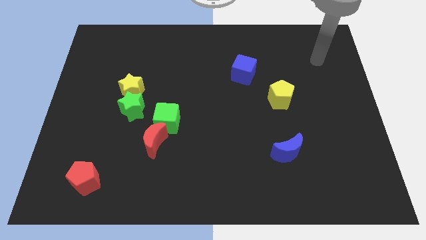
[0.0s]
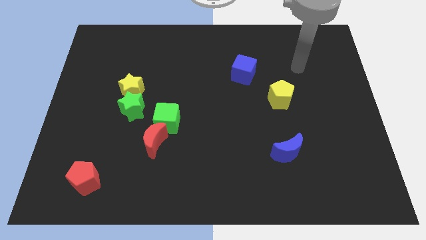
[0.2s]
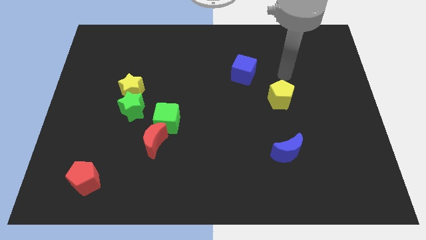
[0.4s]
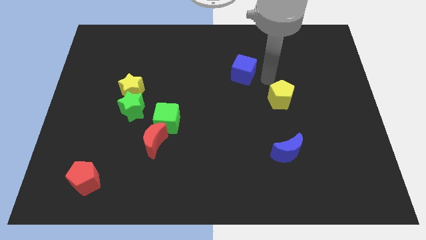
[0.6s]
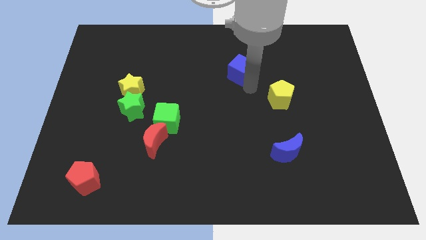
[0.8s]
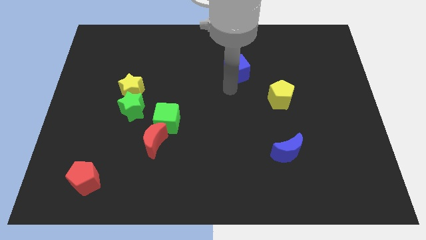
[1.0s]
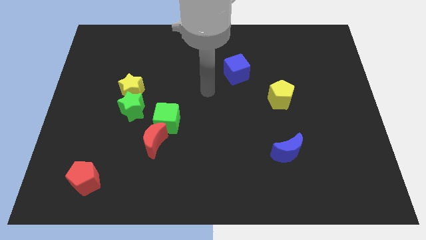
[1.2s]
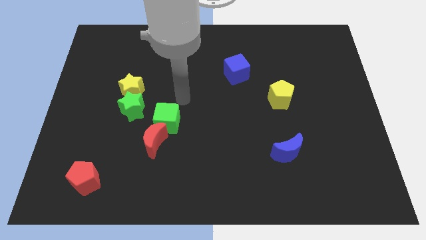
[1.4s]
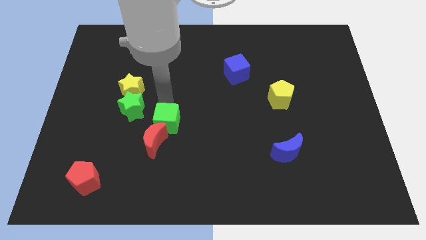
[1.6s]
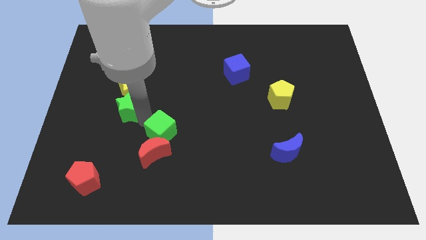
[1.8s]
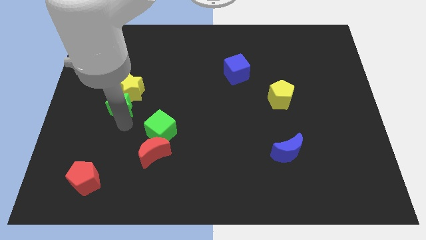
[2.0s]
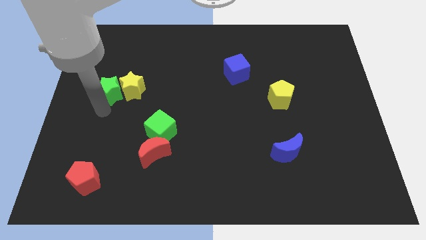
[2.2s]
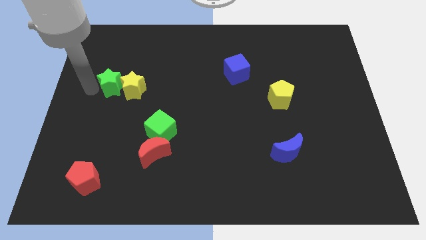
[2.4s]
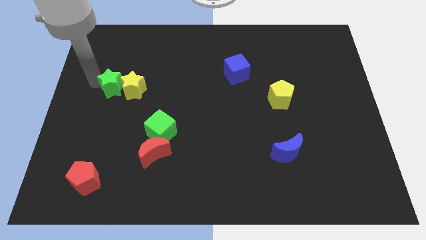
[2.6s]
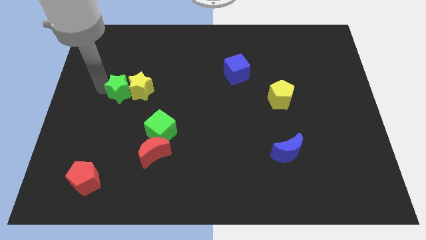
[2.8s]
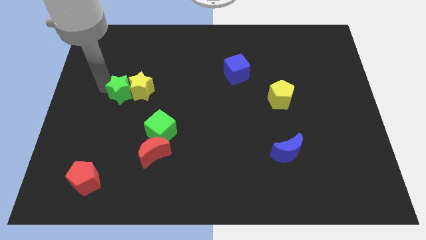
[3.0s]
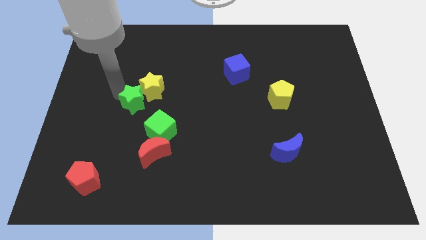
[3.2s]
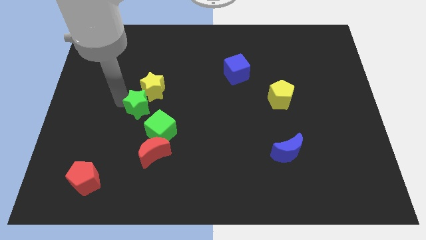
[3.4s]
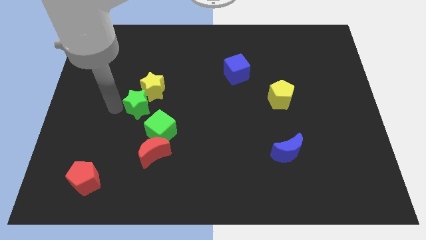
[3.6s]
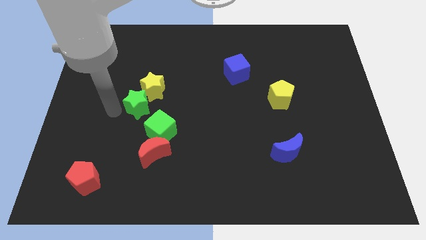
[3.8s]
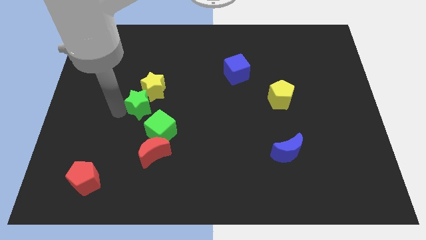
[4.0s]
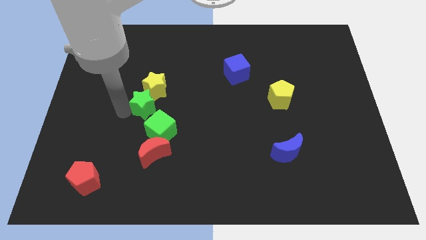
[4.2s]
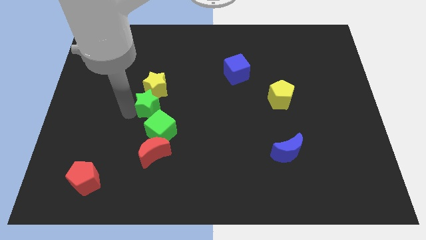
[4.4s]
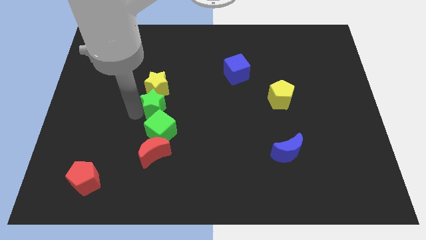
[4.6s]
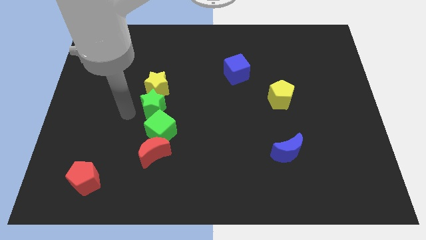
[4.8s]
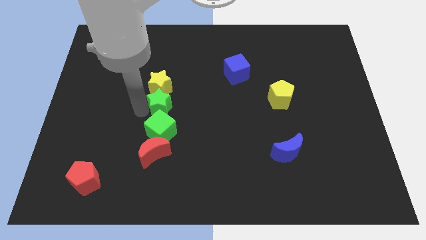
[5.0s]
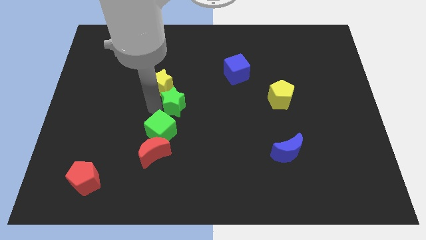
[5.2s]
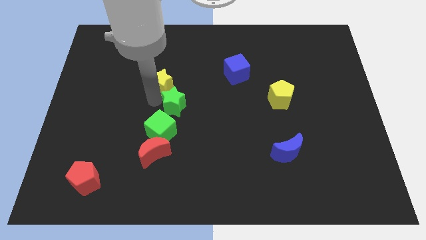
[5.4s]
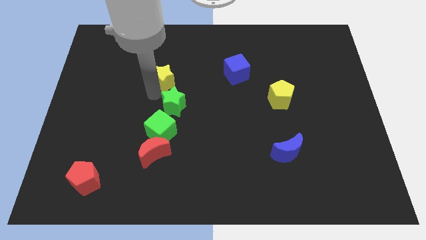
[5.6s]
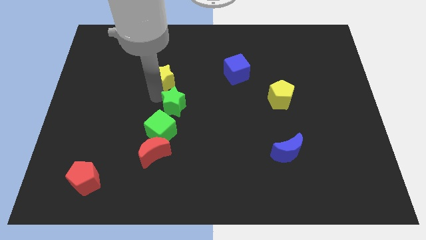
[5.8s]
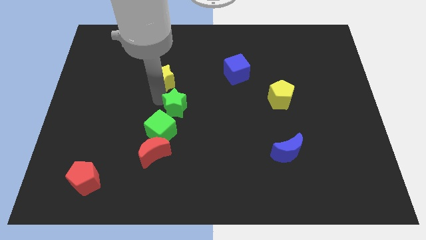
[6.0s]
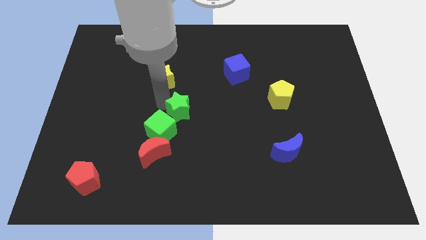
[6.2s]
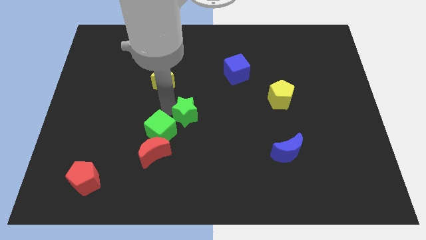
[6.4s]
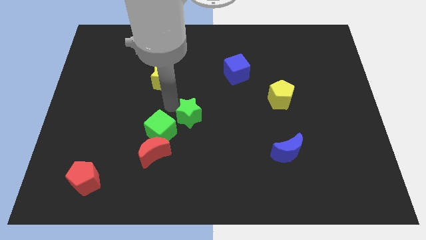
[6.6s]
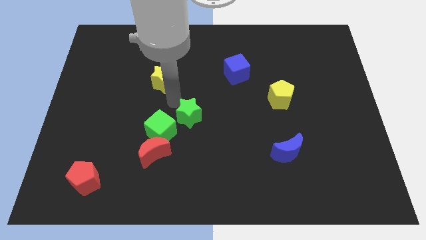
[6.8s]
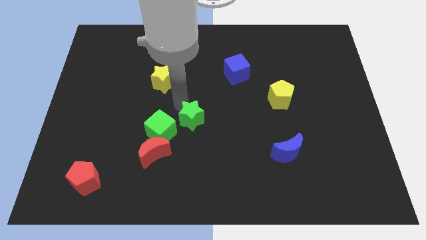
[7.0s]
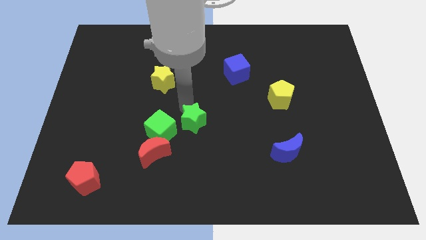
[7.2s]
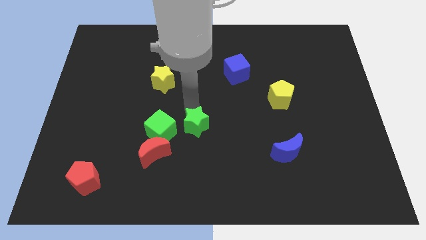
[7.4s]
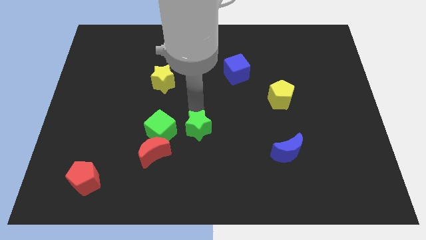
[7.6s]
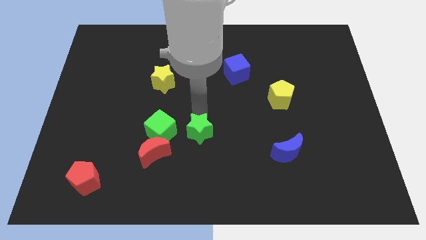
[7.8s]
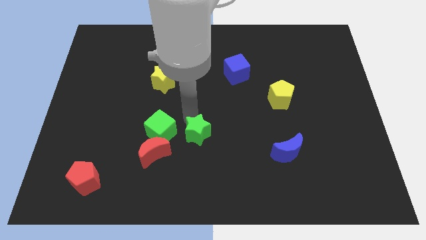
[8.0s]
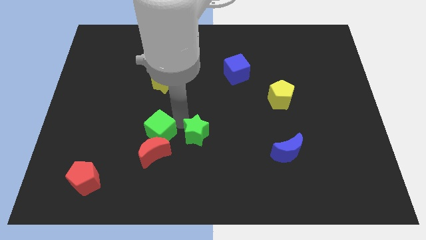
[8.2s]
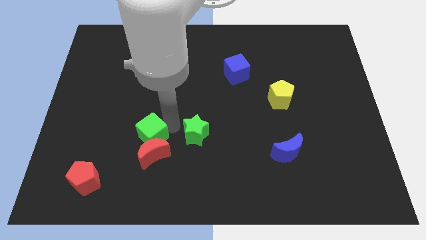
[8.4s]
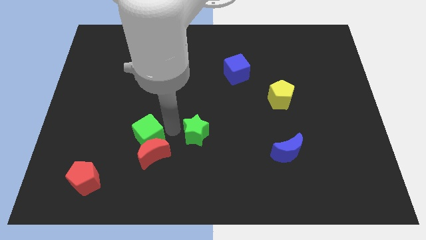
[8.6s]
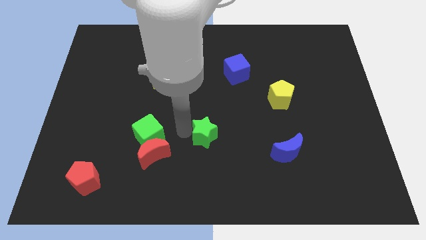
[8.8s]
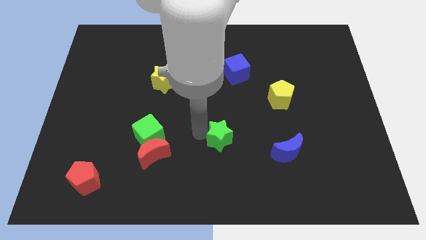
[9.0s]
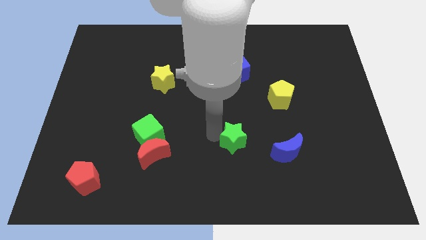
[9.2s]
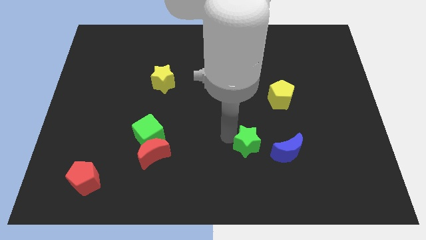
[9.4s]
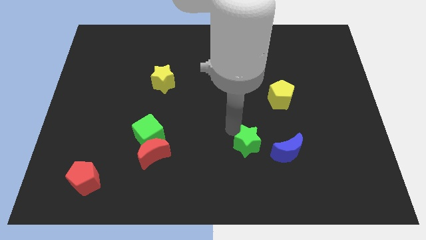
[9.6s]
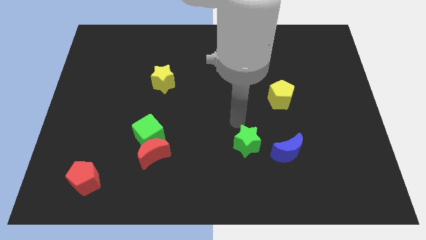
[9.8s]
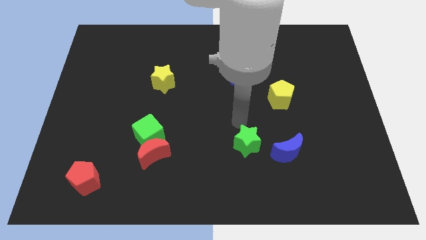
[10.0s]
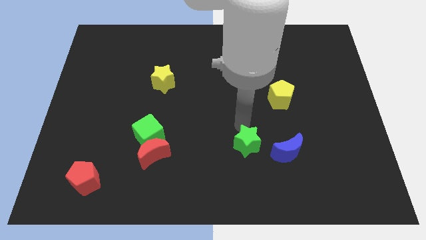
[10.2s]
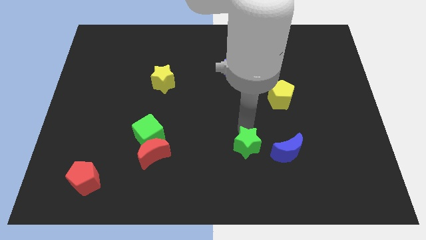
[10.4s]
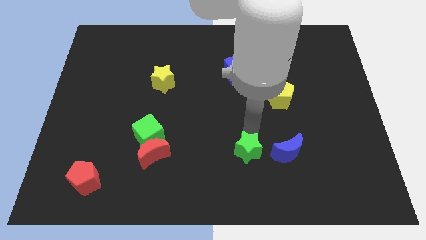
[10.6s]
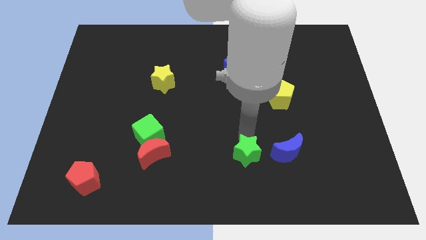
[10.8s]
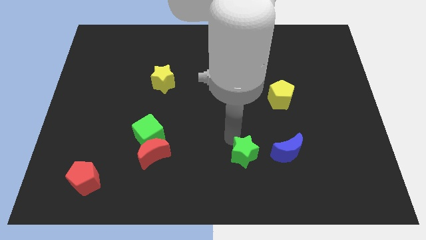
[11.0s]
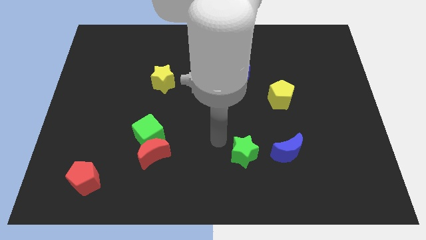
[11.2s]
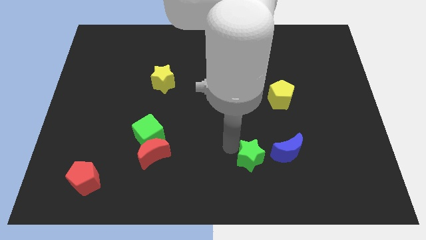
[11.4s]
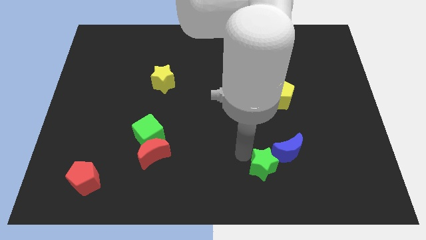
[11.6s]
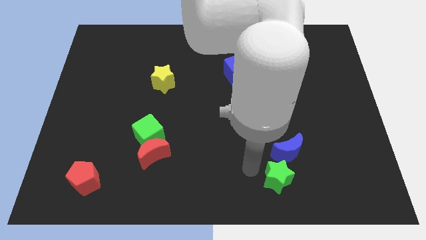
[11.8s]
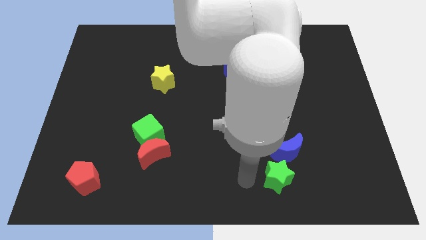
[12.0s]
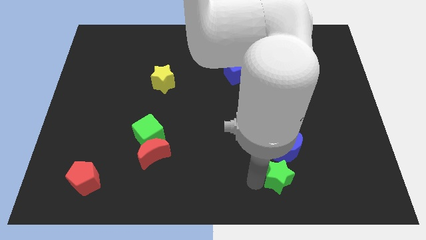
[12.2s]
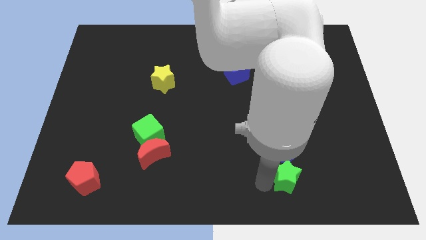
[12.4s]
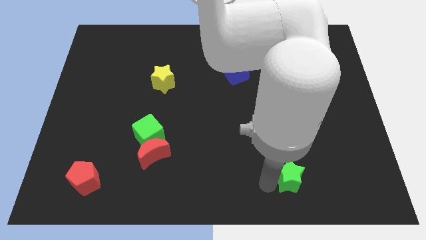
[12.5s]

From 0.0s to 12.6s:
put the green star to the bottom right side of the blue moon

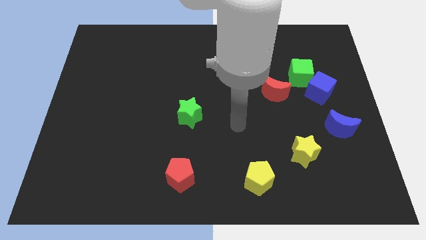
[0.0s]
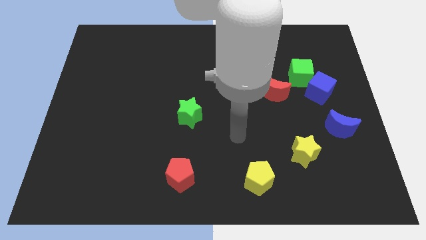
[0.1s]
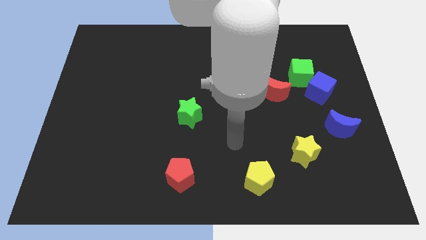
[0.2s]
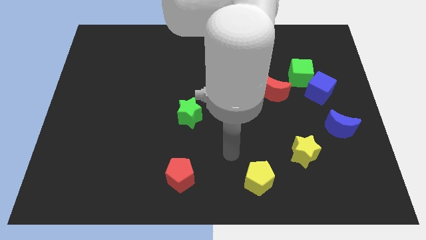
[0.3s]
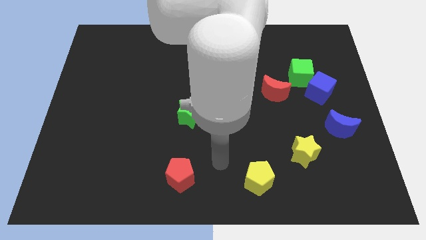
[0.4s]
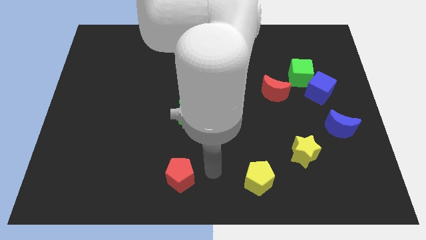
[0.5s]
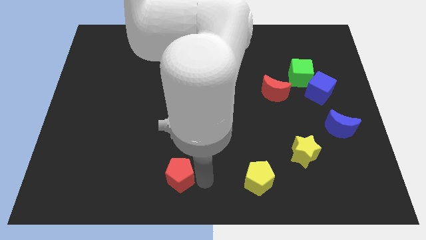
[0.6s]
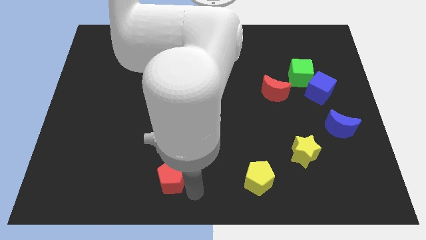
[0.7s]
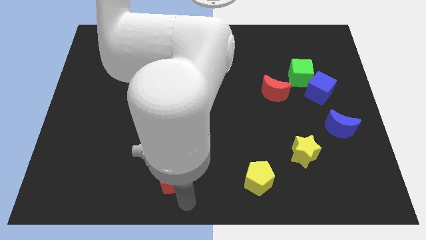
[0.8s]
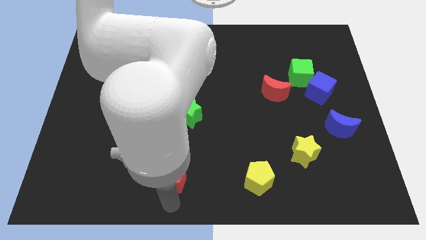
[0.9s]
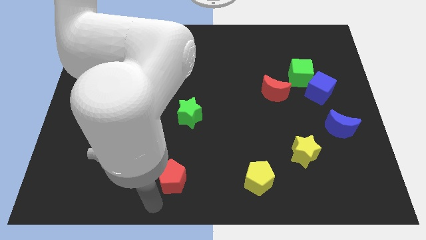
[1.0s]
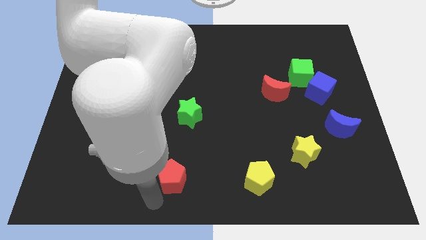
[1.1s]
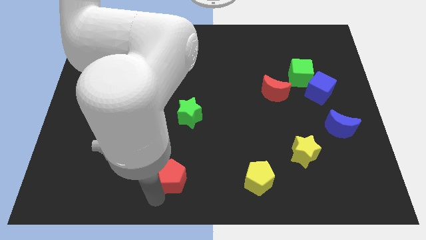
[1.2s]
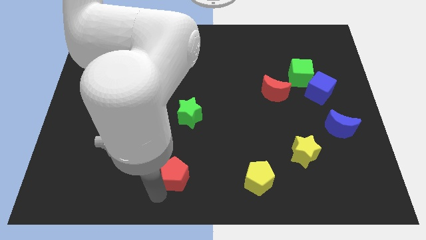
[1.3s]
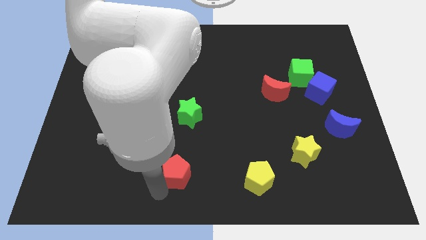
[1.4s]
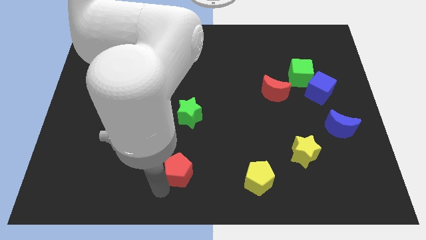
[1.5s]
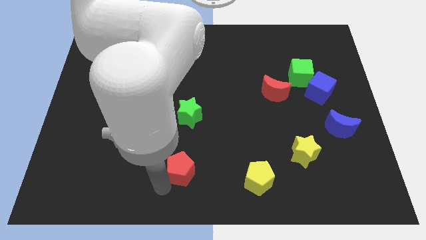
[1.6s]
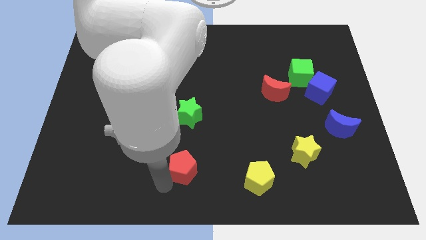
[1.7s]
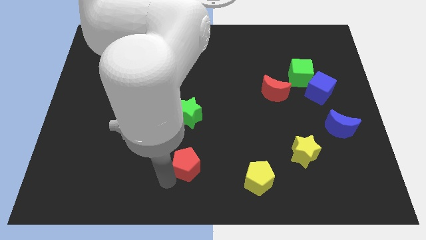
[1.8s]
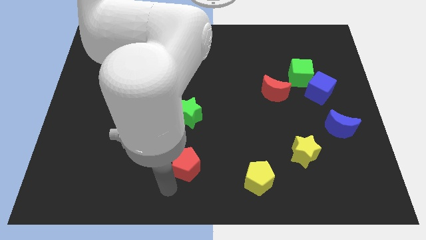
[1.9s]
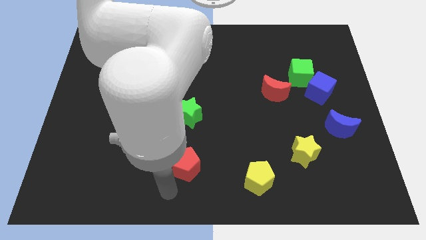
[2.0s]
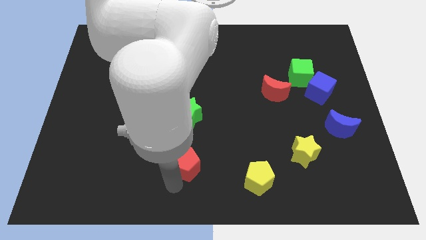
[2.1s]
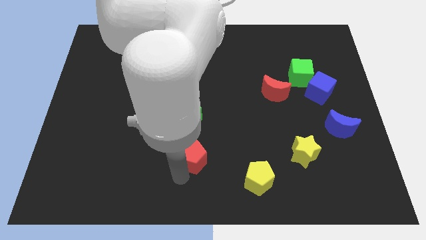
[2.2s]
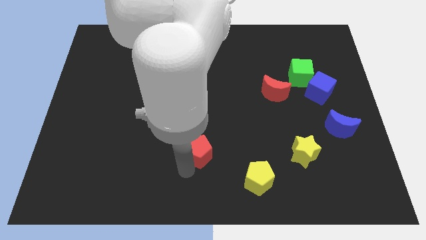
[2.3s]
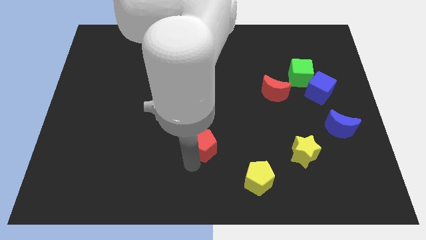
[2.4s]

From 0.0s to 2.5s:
put the red pentagon to the bottom right of the green star
